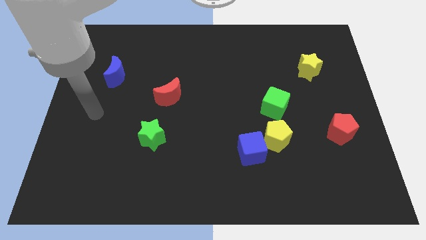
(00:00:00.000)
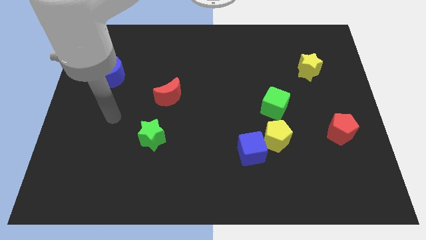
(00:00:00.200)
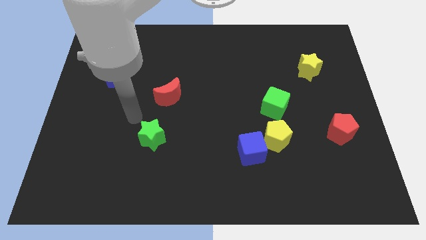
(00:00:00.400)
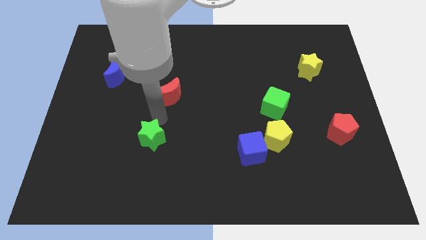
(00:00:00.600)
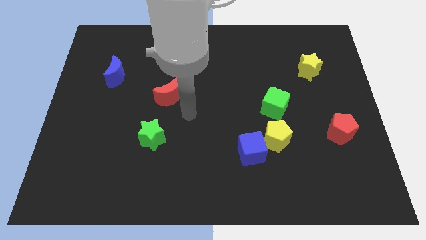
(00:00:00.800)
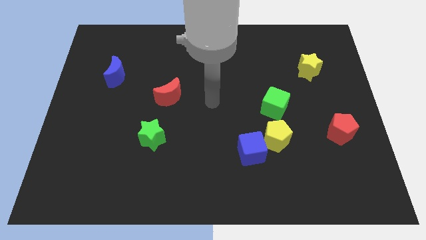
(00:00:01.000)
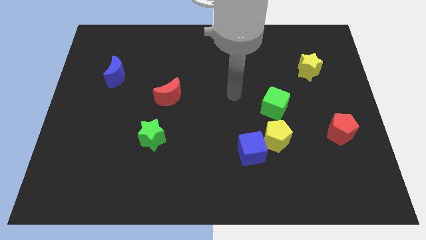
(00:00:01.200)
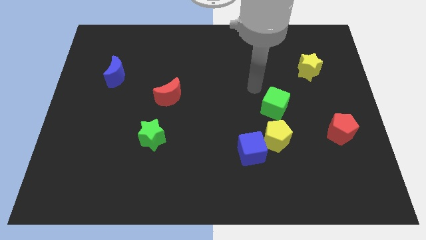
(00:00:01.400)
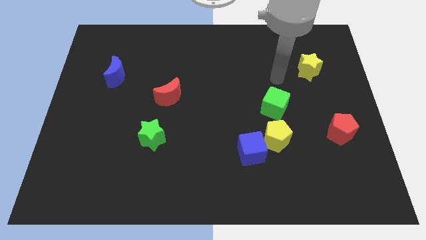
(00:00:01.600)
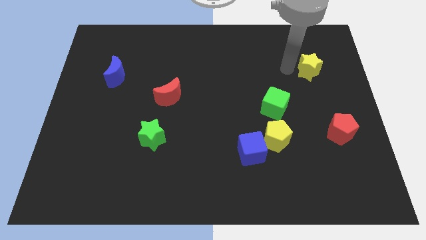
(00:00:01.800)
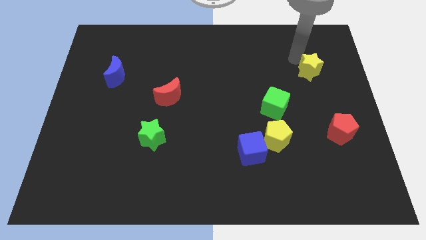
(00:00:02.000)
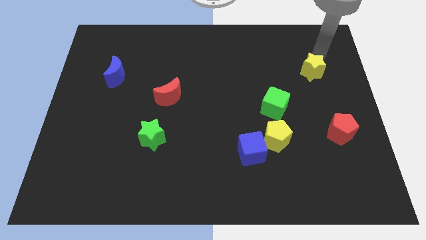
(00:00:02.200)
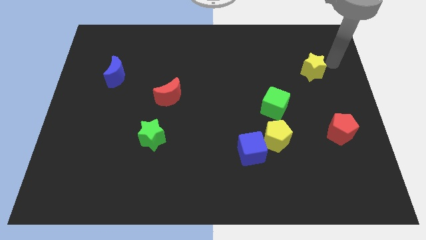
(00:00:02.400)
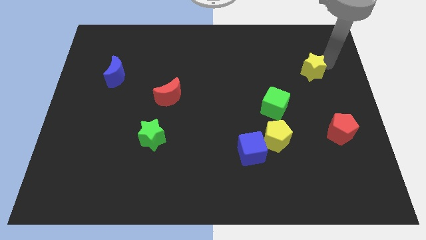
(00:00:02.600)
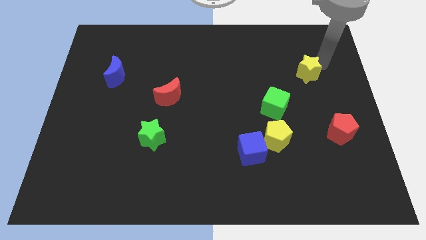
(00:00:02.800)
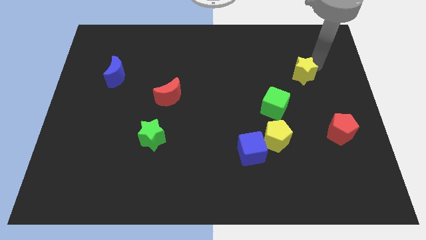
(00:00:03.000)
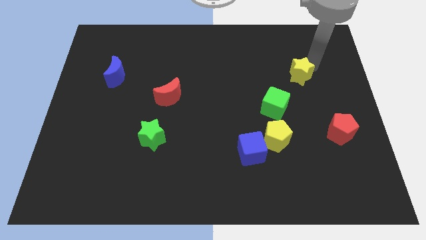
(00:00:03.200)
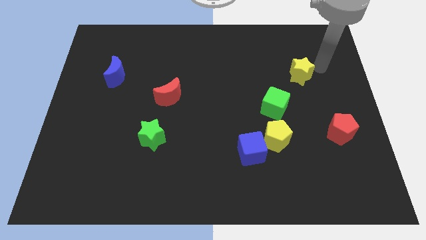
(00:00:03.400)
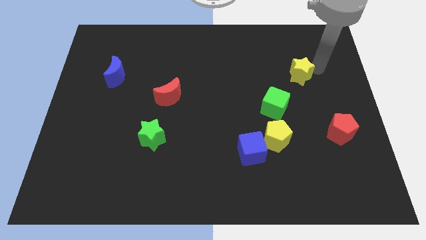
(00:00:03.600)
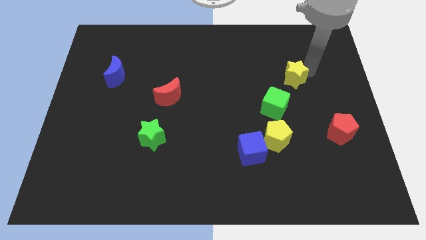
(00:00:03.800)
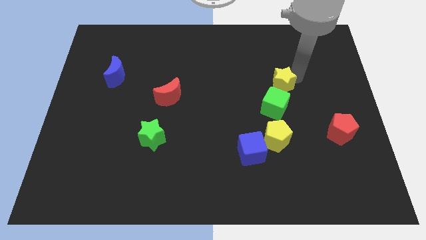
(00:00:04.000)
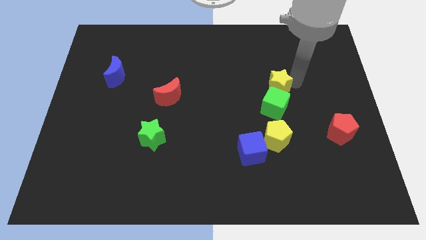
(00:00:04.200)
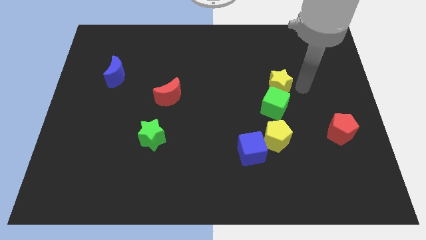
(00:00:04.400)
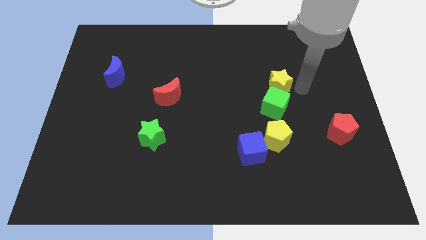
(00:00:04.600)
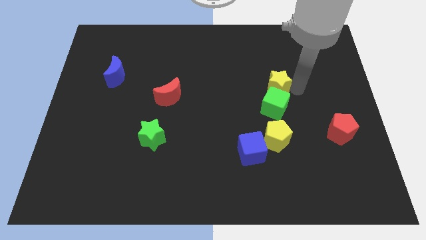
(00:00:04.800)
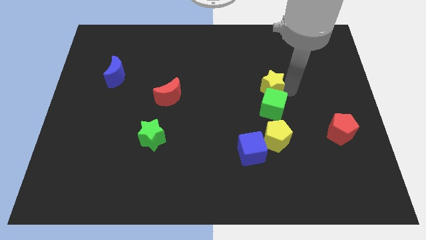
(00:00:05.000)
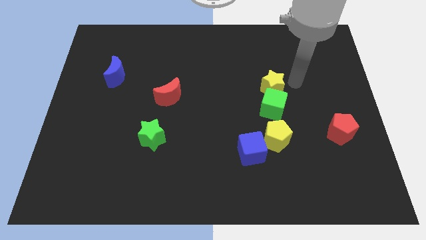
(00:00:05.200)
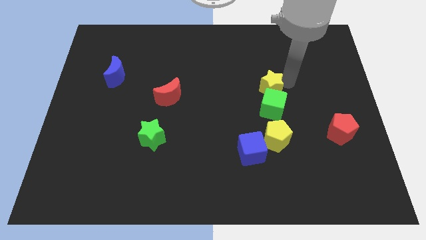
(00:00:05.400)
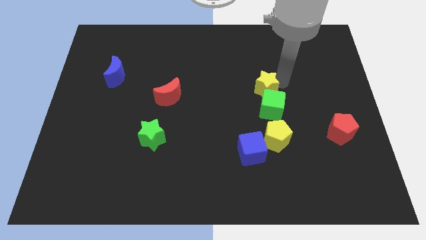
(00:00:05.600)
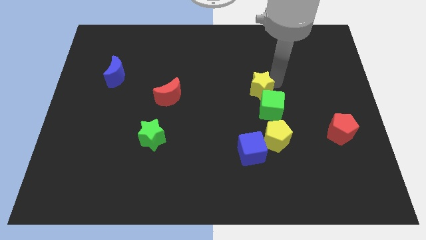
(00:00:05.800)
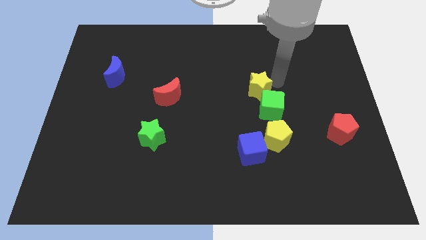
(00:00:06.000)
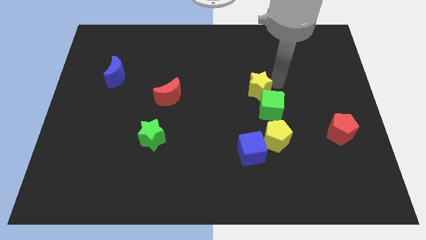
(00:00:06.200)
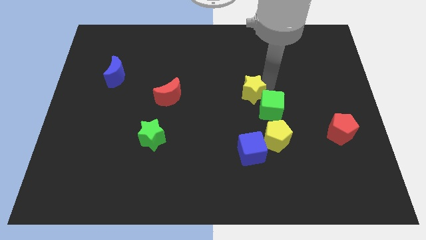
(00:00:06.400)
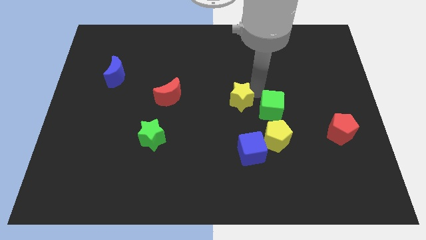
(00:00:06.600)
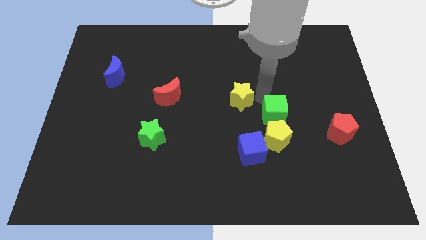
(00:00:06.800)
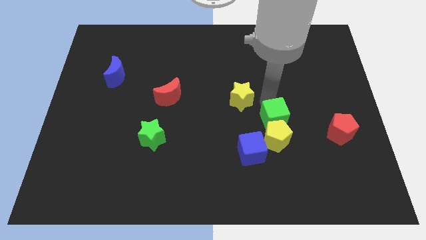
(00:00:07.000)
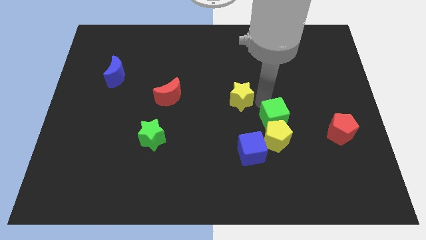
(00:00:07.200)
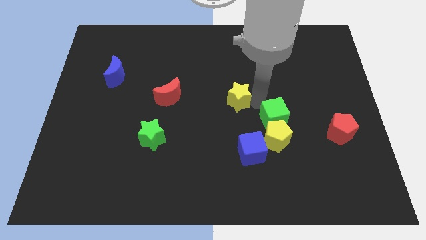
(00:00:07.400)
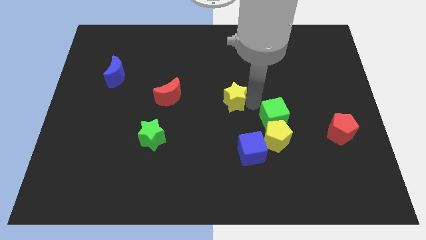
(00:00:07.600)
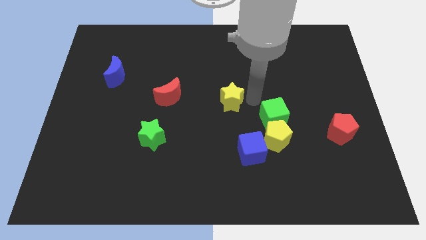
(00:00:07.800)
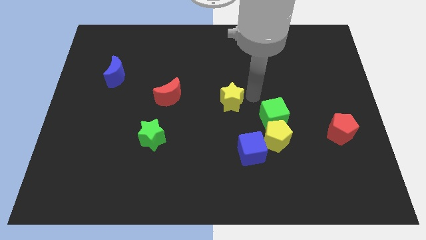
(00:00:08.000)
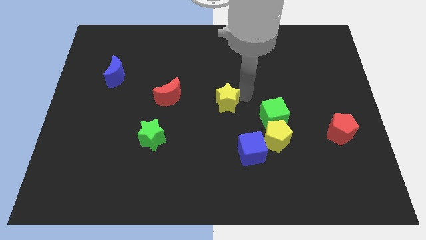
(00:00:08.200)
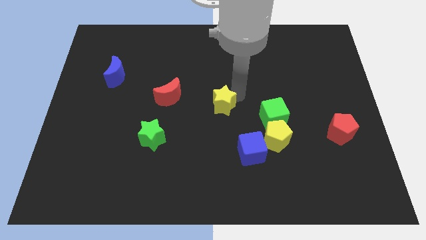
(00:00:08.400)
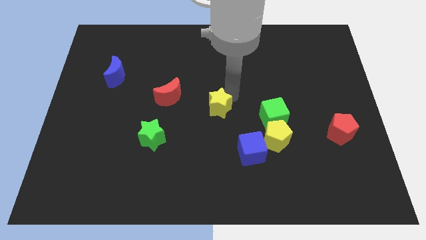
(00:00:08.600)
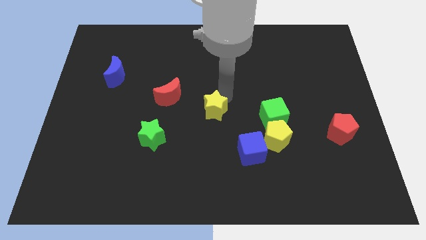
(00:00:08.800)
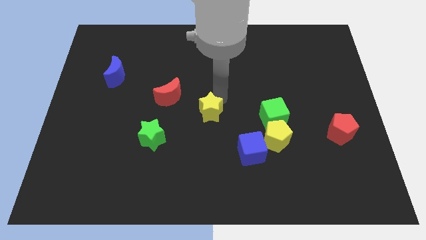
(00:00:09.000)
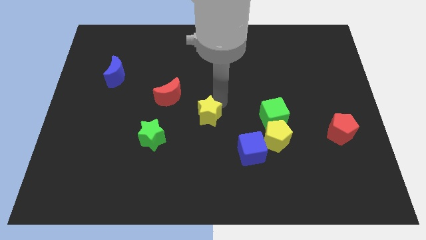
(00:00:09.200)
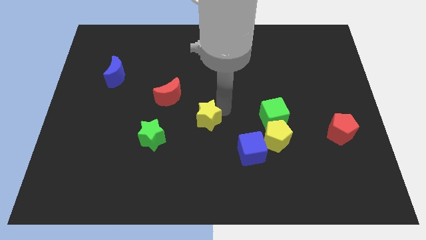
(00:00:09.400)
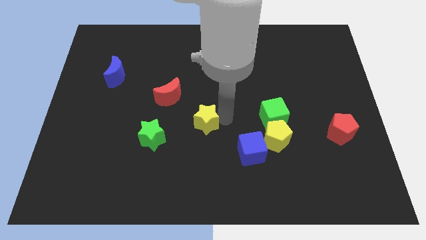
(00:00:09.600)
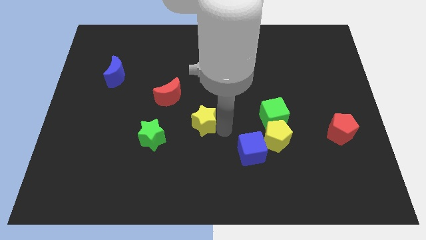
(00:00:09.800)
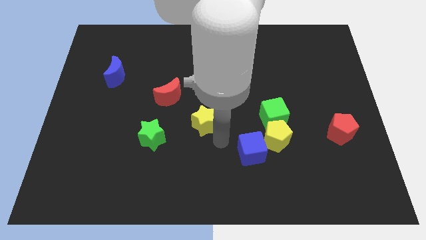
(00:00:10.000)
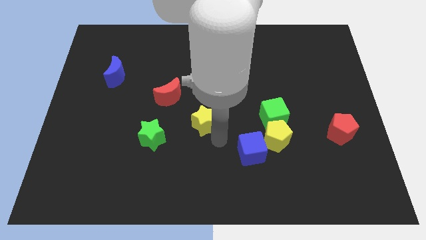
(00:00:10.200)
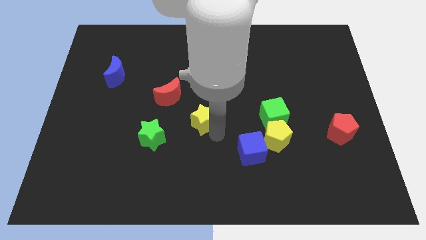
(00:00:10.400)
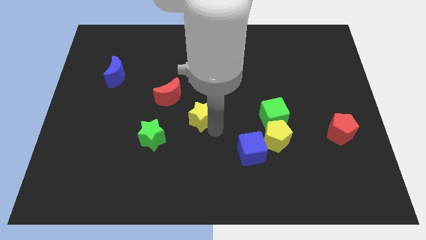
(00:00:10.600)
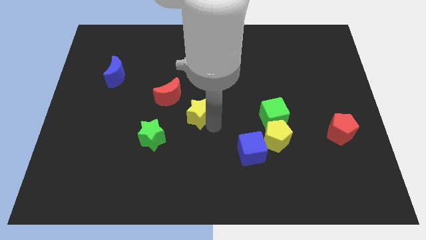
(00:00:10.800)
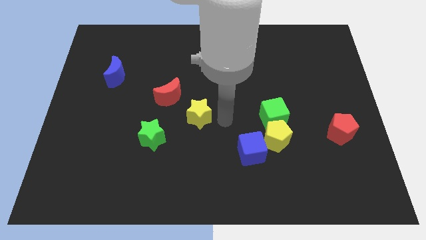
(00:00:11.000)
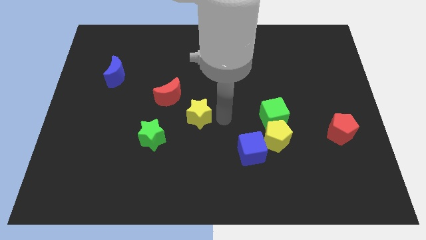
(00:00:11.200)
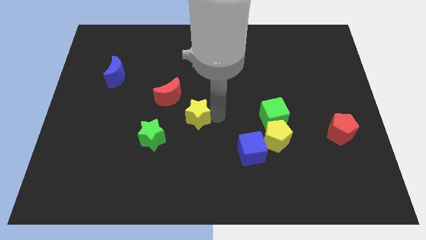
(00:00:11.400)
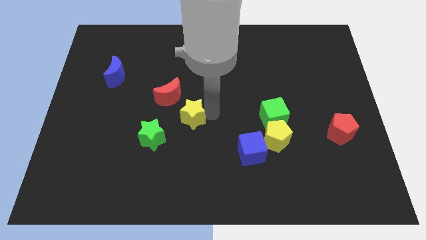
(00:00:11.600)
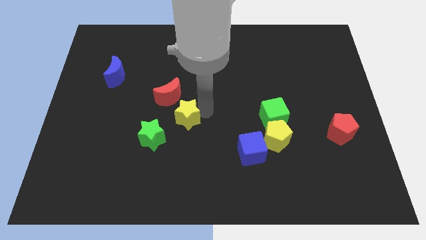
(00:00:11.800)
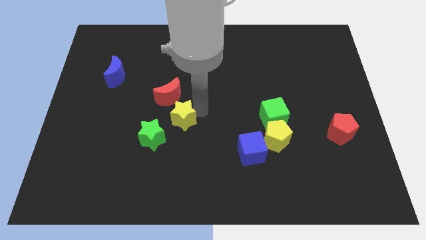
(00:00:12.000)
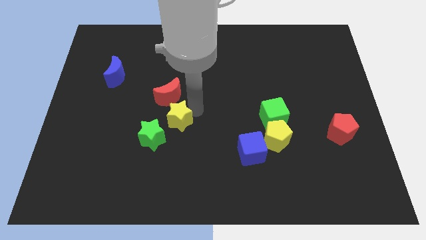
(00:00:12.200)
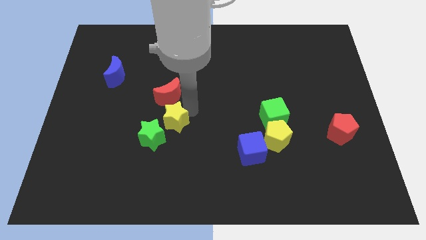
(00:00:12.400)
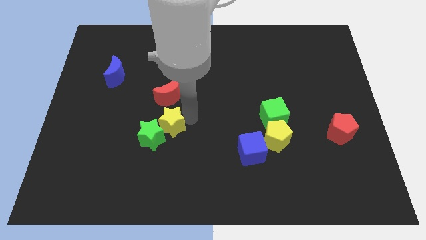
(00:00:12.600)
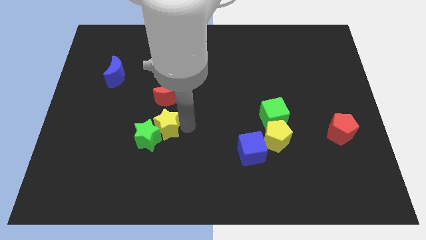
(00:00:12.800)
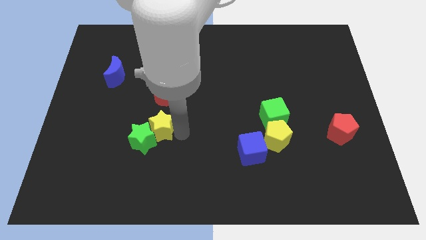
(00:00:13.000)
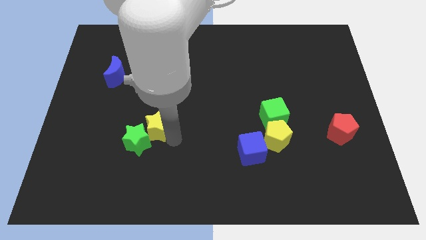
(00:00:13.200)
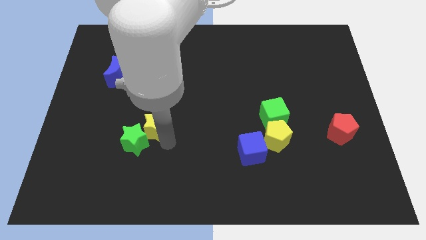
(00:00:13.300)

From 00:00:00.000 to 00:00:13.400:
slide the yellow star diagonally down and to the left of the red moon

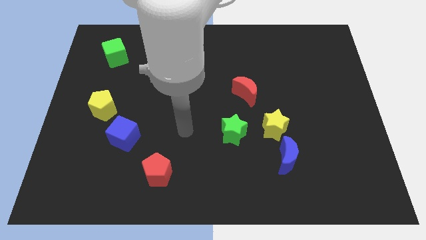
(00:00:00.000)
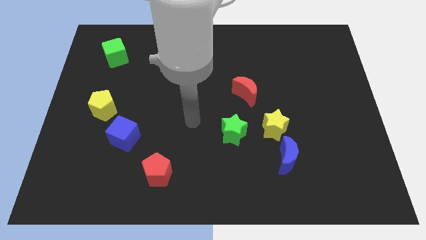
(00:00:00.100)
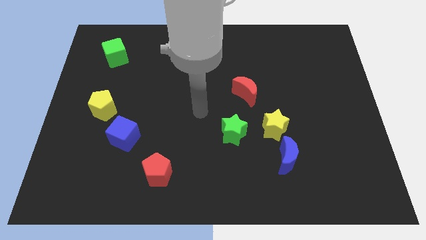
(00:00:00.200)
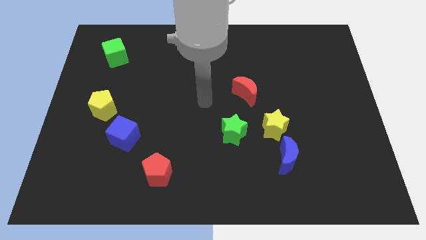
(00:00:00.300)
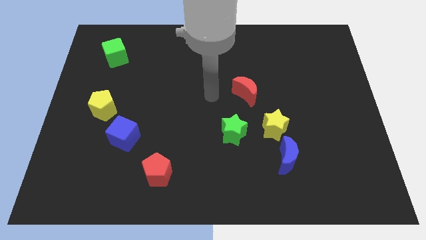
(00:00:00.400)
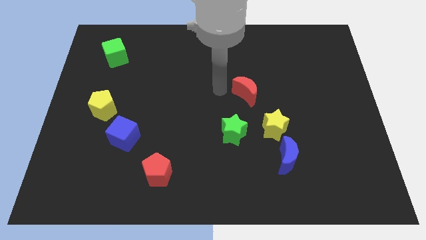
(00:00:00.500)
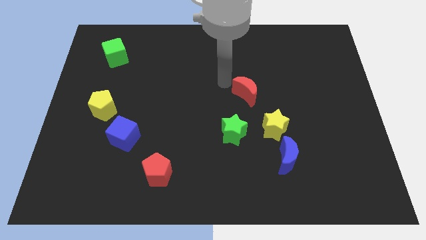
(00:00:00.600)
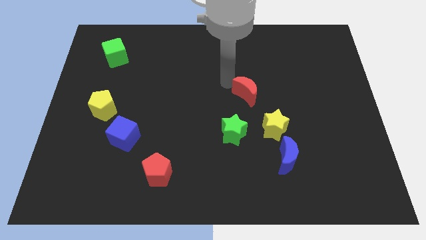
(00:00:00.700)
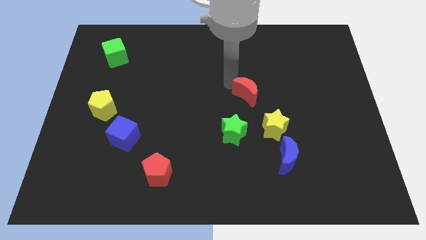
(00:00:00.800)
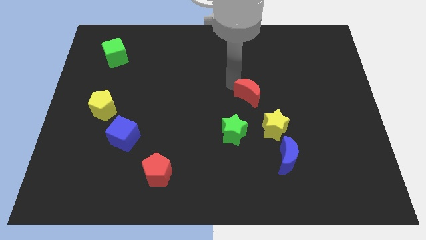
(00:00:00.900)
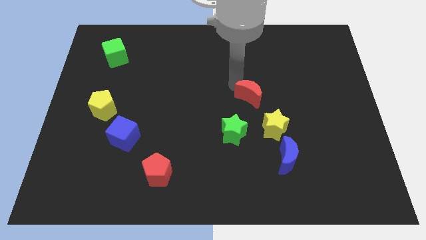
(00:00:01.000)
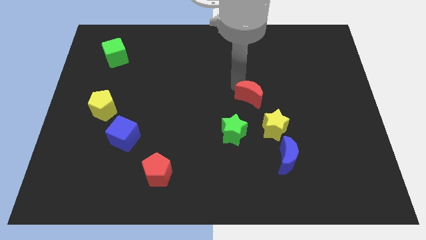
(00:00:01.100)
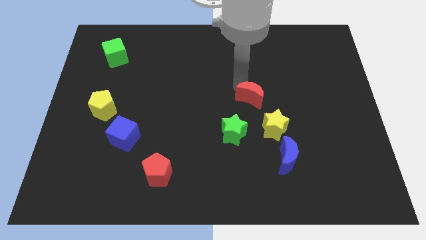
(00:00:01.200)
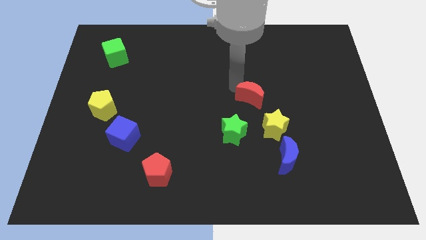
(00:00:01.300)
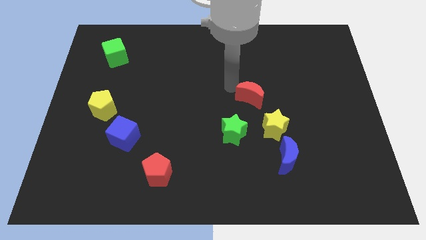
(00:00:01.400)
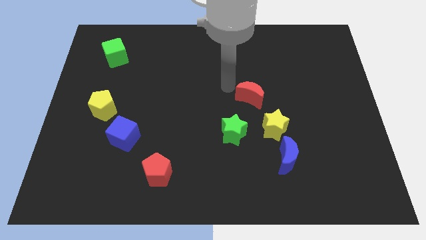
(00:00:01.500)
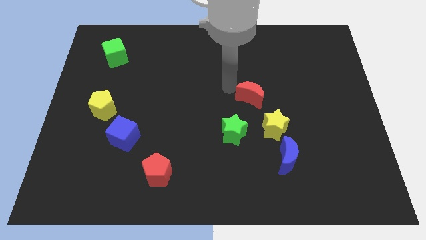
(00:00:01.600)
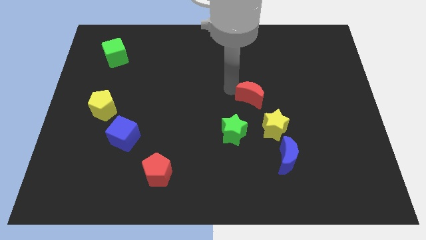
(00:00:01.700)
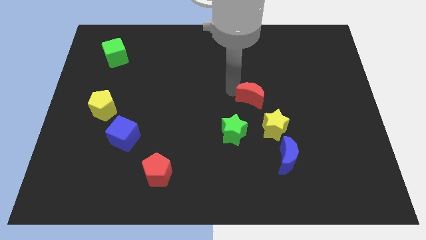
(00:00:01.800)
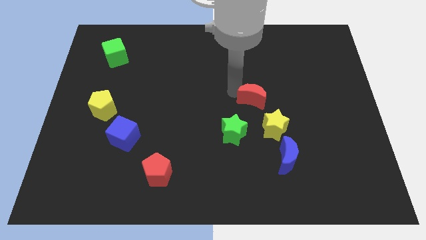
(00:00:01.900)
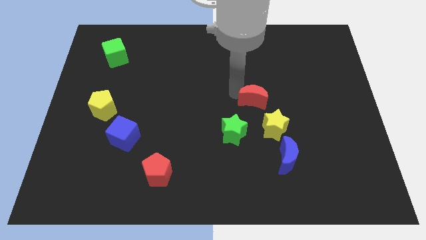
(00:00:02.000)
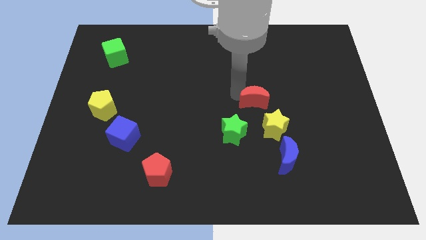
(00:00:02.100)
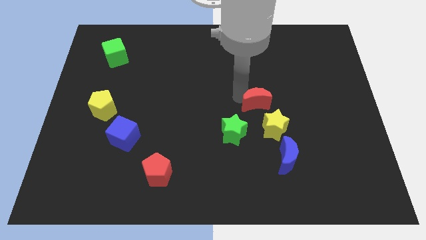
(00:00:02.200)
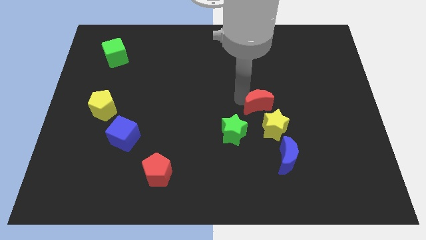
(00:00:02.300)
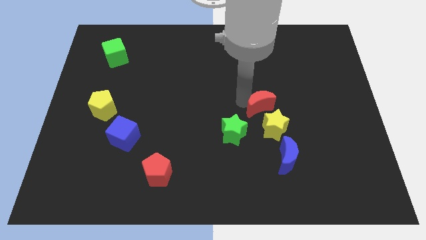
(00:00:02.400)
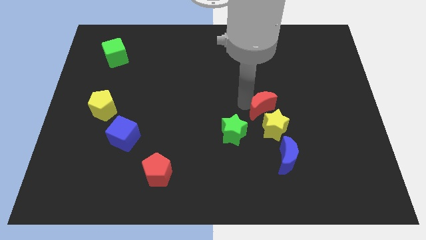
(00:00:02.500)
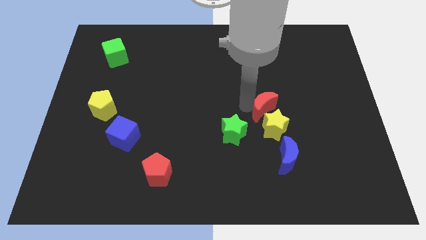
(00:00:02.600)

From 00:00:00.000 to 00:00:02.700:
put the red moon above the blue moon
